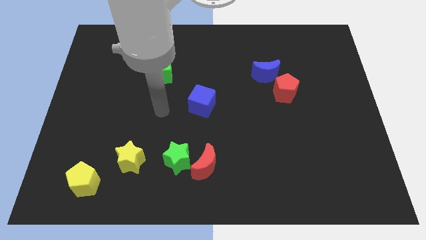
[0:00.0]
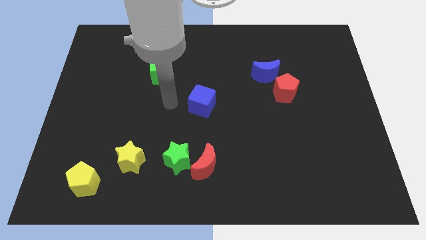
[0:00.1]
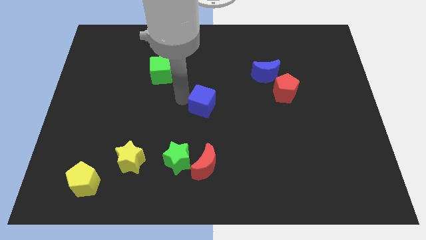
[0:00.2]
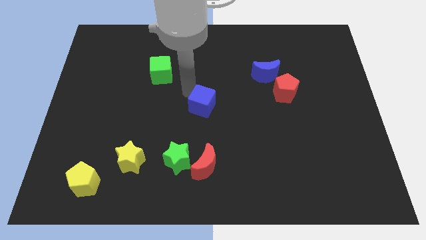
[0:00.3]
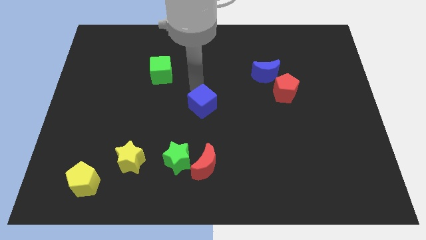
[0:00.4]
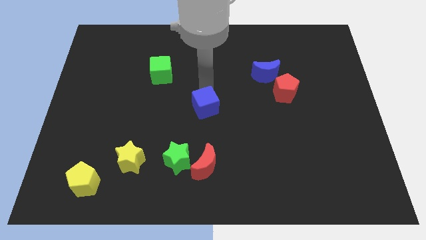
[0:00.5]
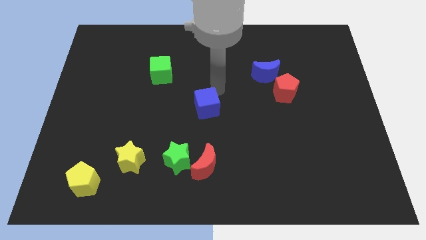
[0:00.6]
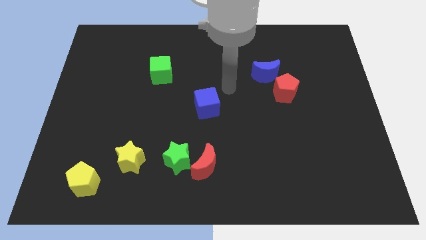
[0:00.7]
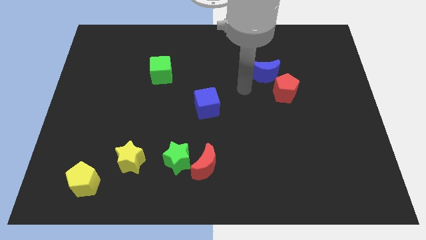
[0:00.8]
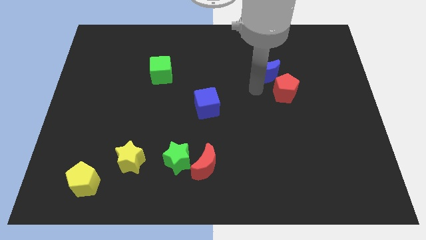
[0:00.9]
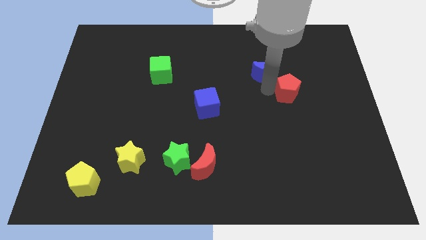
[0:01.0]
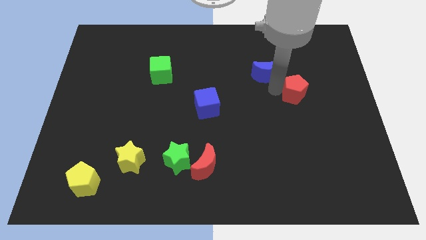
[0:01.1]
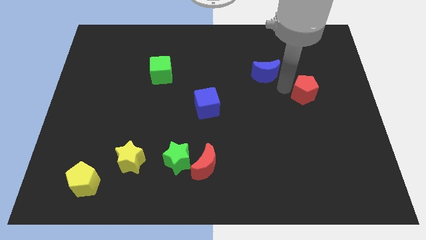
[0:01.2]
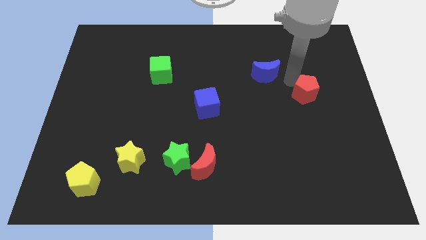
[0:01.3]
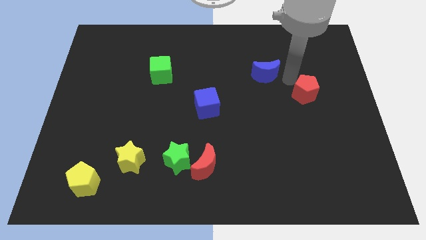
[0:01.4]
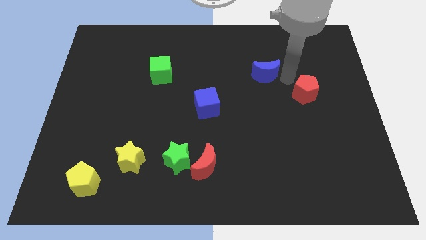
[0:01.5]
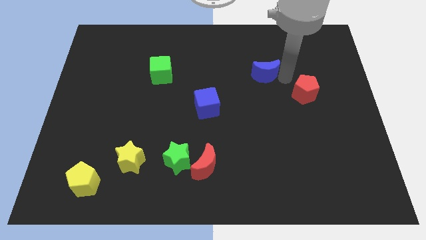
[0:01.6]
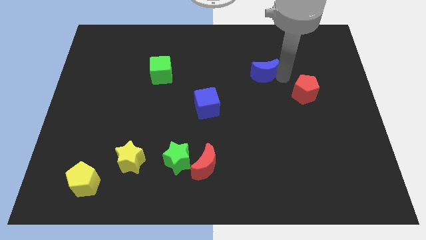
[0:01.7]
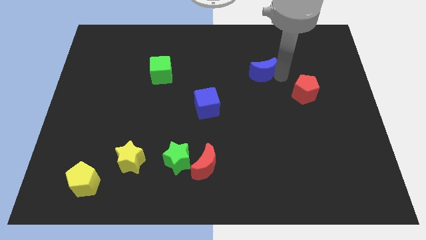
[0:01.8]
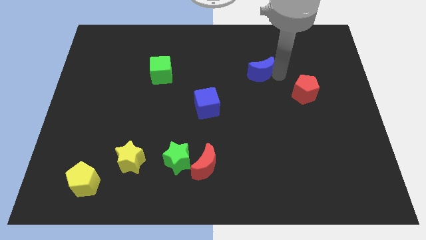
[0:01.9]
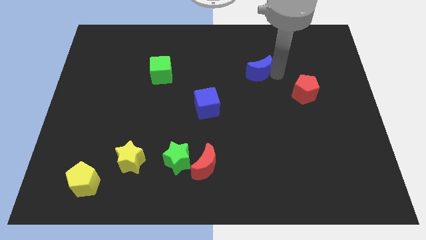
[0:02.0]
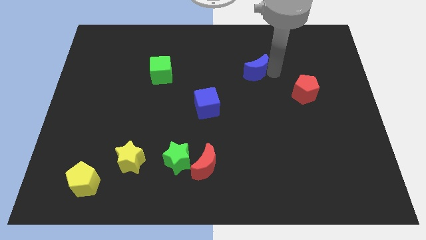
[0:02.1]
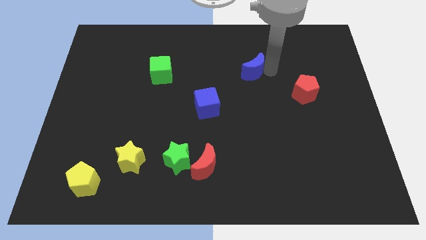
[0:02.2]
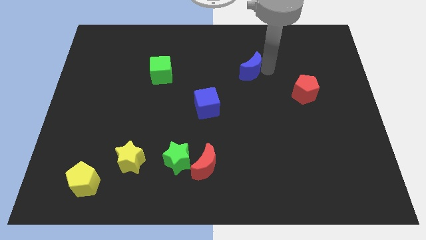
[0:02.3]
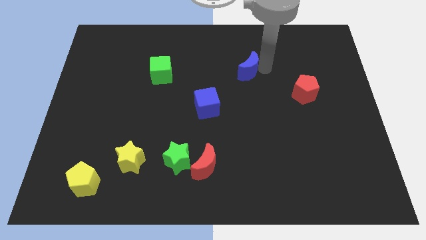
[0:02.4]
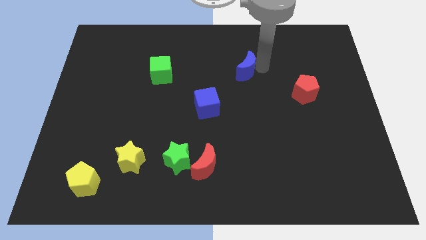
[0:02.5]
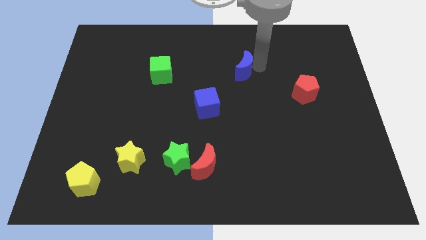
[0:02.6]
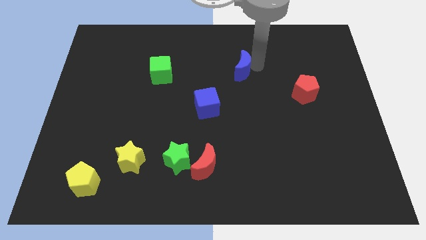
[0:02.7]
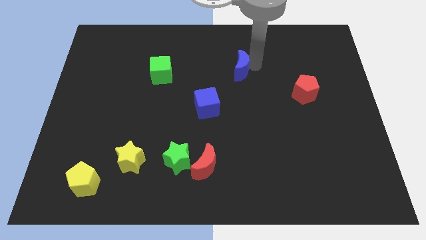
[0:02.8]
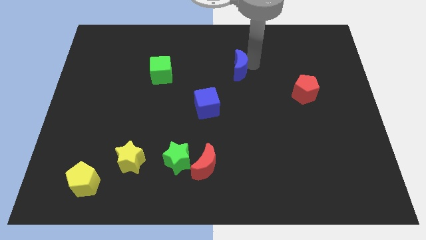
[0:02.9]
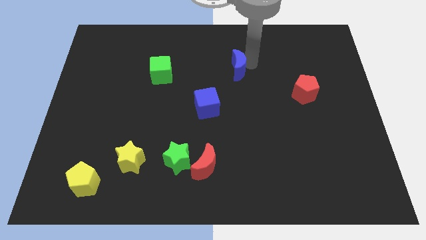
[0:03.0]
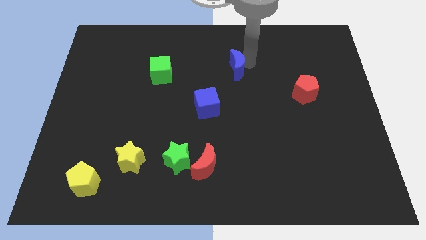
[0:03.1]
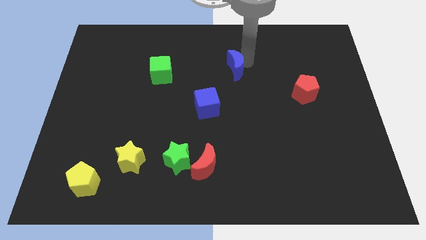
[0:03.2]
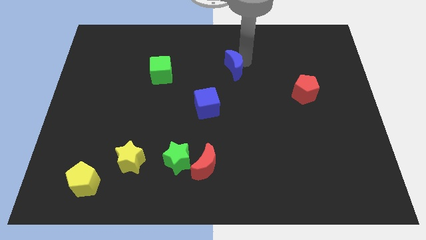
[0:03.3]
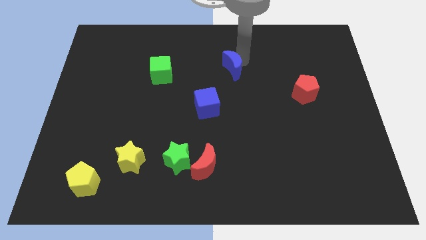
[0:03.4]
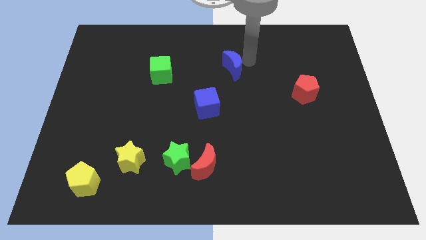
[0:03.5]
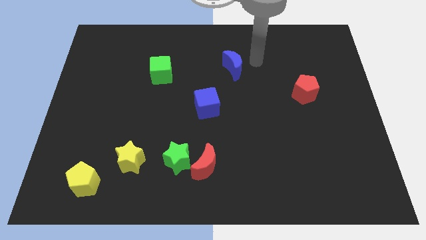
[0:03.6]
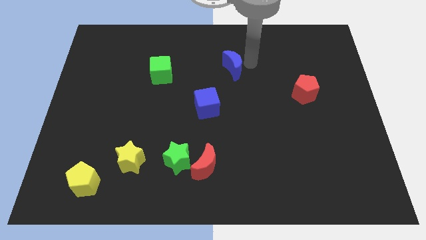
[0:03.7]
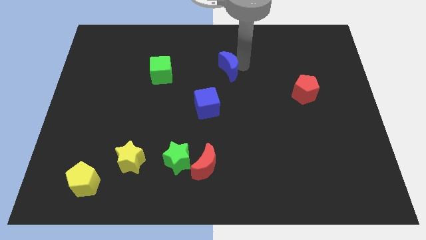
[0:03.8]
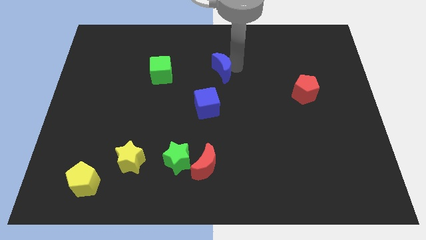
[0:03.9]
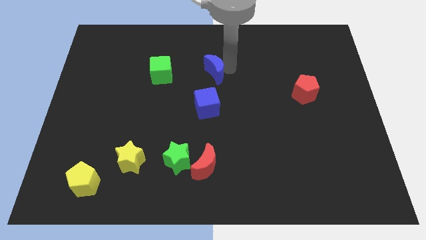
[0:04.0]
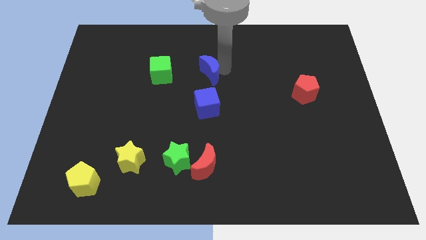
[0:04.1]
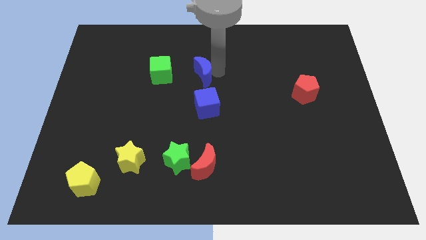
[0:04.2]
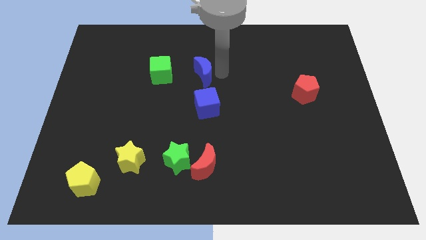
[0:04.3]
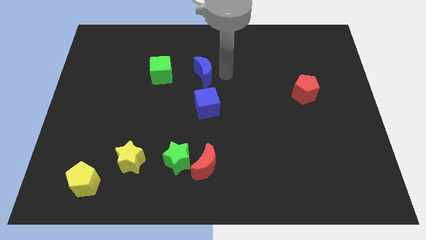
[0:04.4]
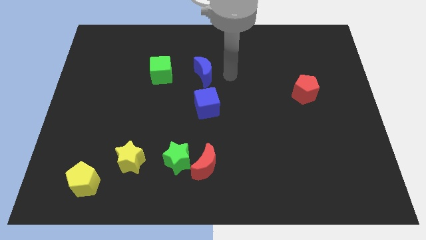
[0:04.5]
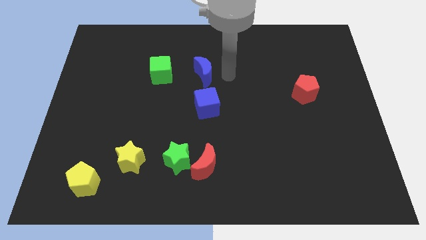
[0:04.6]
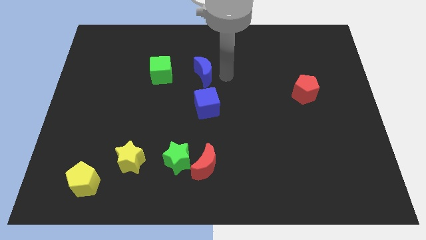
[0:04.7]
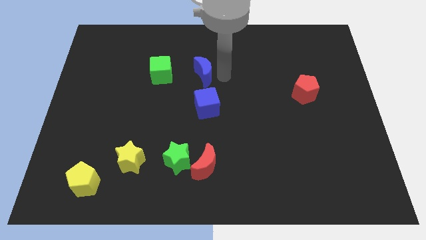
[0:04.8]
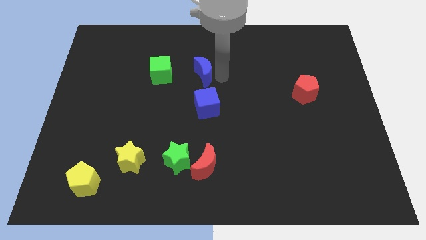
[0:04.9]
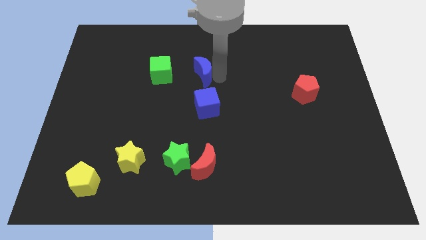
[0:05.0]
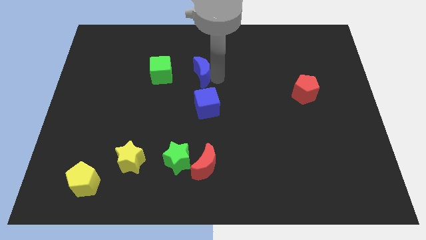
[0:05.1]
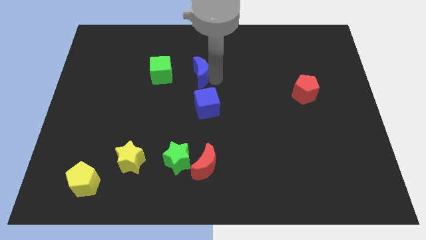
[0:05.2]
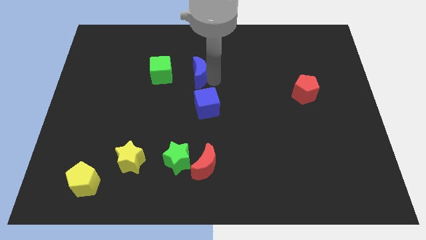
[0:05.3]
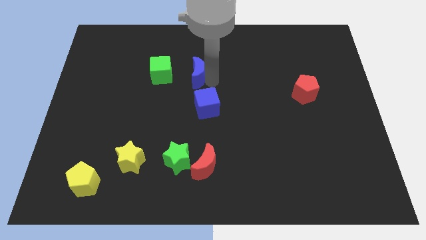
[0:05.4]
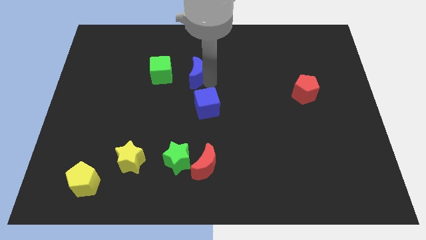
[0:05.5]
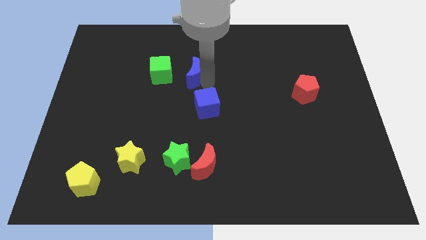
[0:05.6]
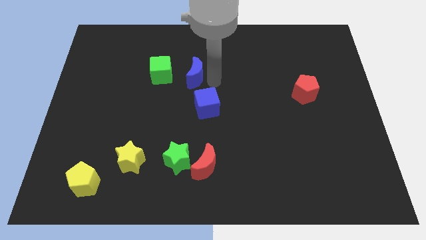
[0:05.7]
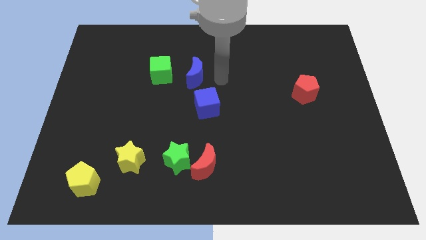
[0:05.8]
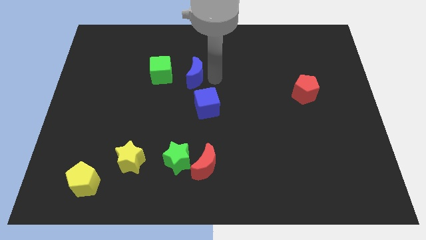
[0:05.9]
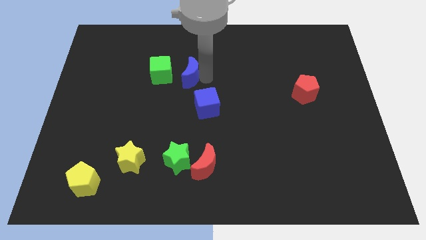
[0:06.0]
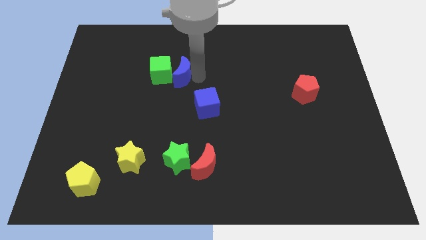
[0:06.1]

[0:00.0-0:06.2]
put the blue moon towards the green cube

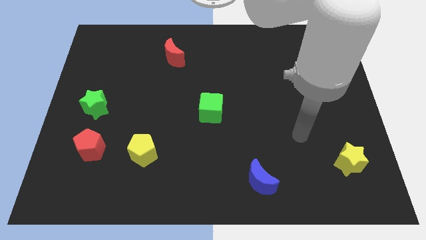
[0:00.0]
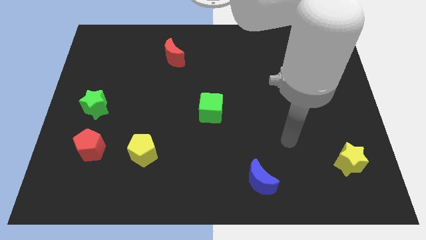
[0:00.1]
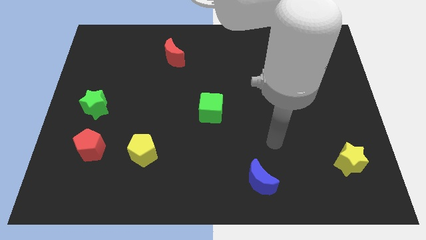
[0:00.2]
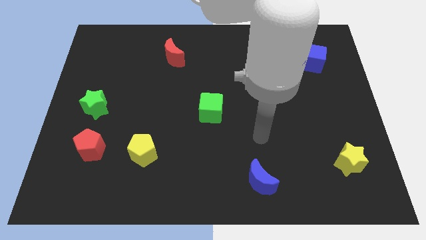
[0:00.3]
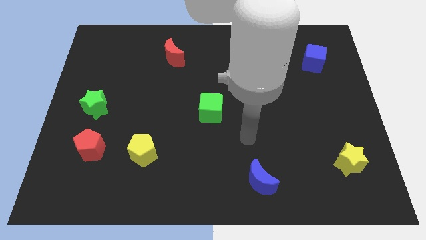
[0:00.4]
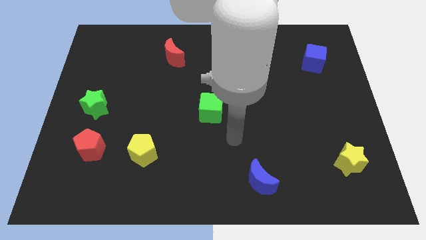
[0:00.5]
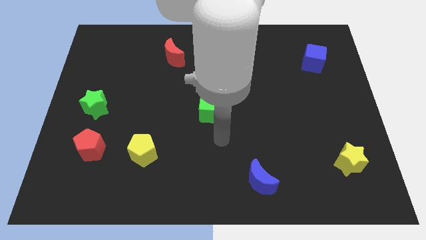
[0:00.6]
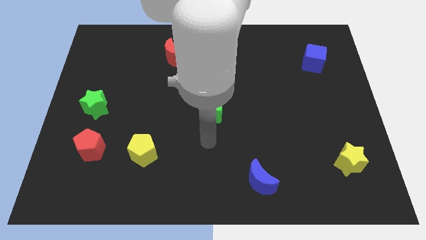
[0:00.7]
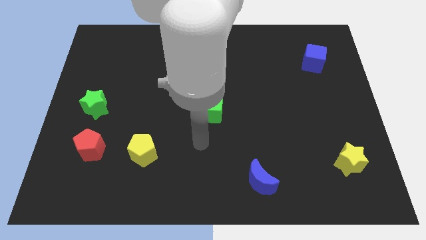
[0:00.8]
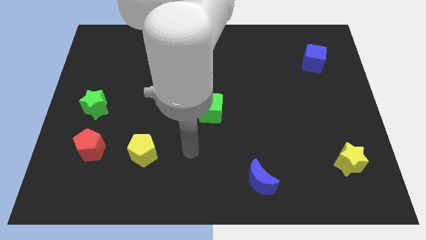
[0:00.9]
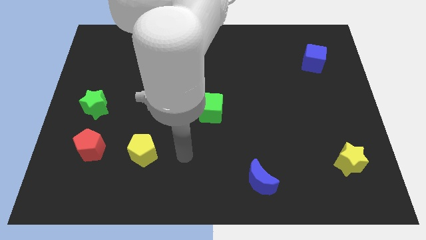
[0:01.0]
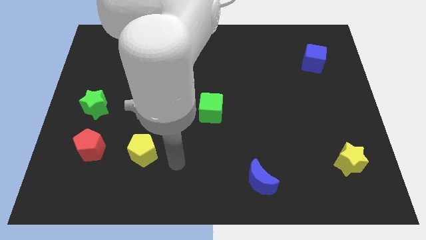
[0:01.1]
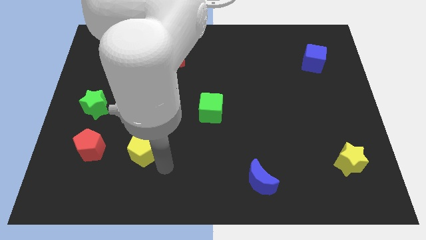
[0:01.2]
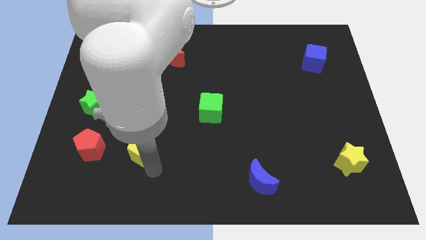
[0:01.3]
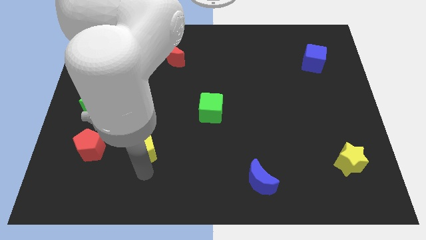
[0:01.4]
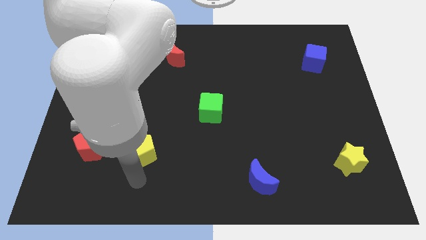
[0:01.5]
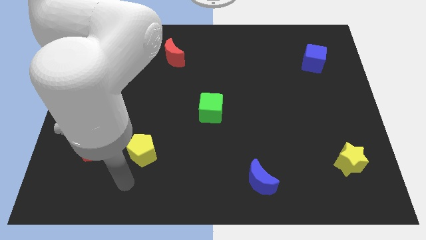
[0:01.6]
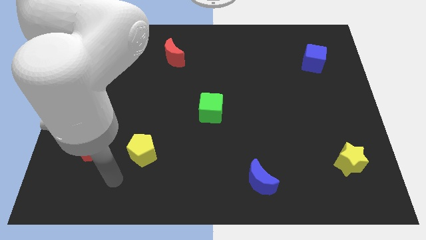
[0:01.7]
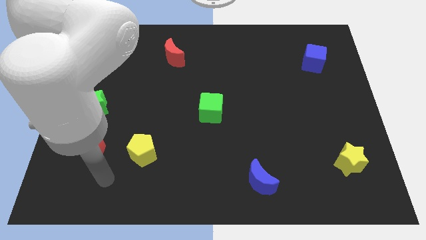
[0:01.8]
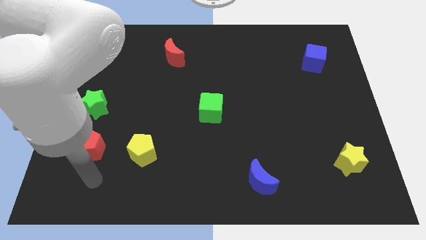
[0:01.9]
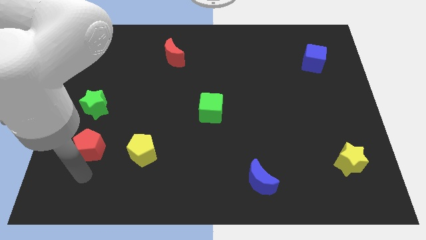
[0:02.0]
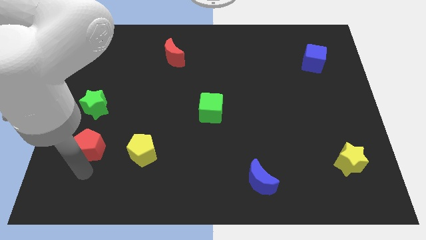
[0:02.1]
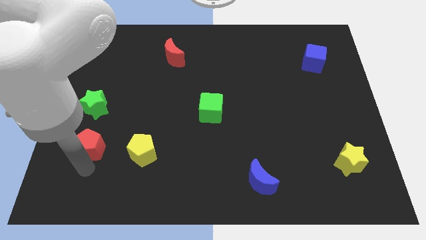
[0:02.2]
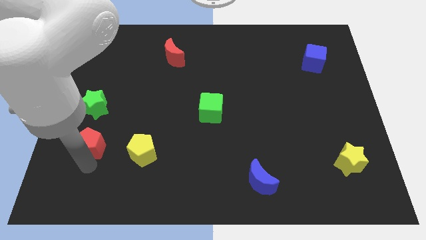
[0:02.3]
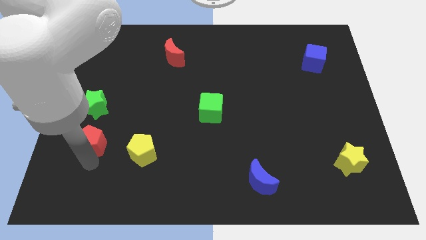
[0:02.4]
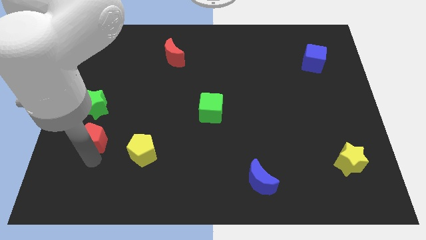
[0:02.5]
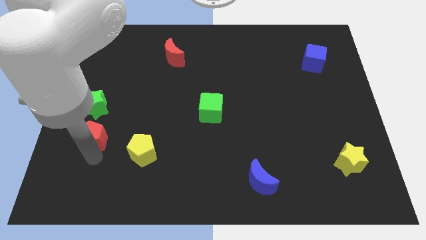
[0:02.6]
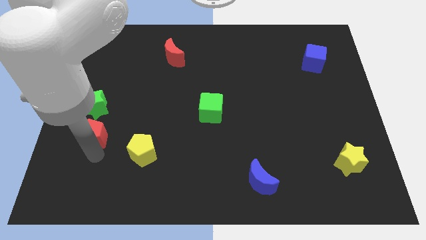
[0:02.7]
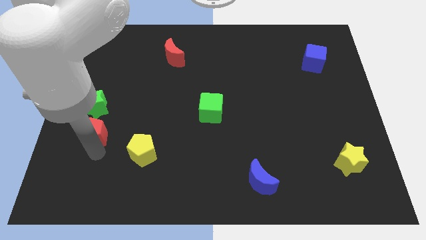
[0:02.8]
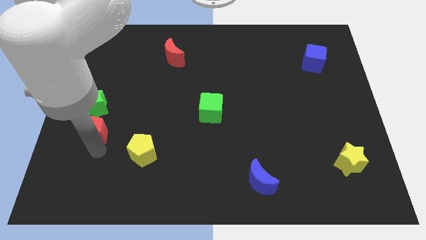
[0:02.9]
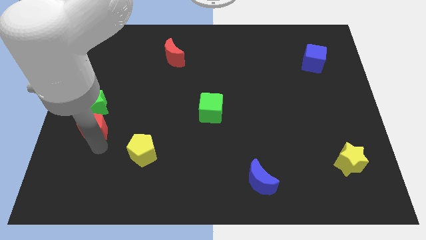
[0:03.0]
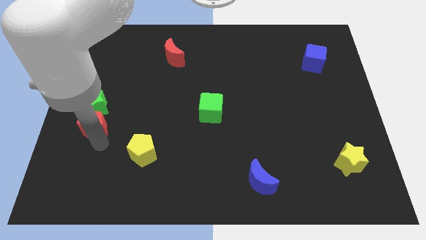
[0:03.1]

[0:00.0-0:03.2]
slide the red pentagon towards the green star
